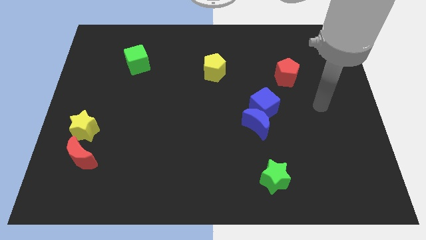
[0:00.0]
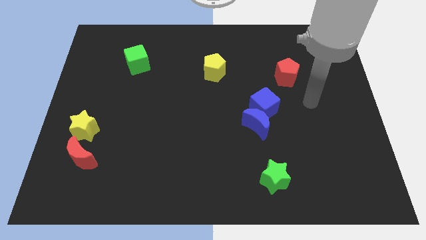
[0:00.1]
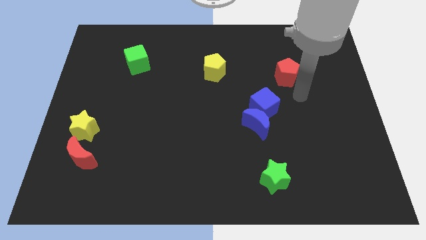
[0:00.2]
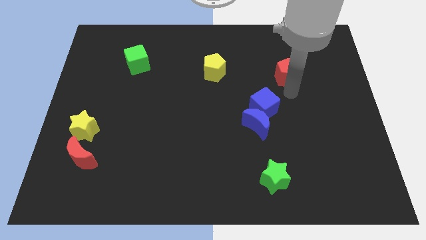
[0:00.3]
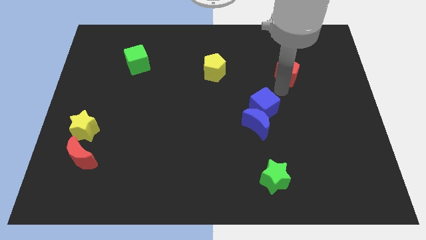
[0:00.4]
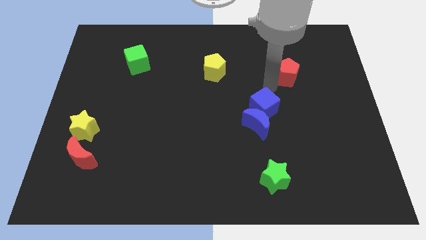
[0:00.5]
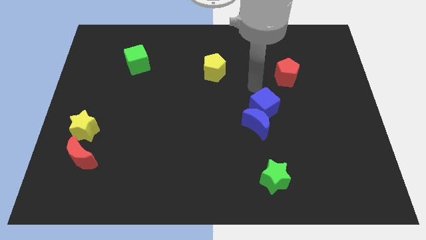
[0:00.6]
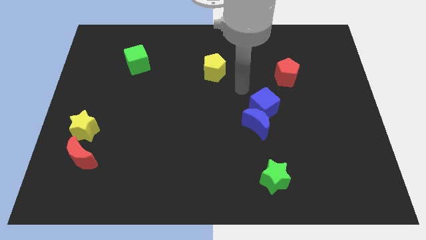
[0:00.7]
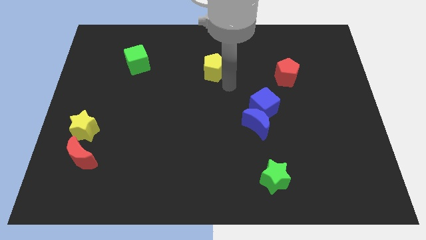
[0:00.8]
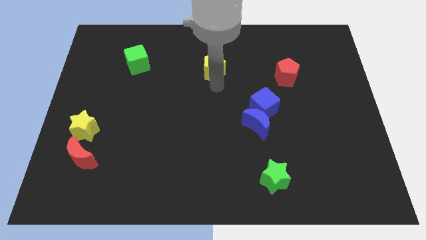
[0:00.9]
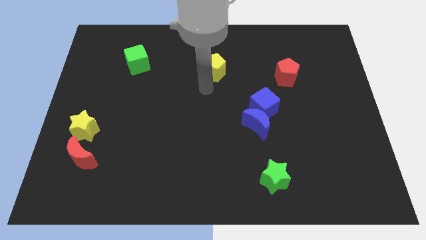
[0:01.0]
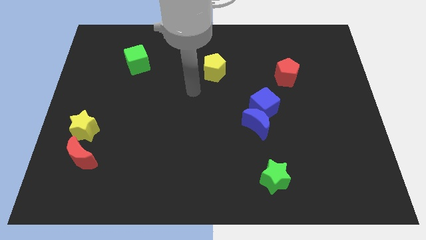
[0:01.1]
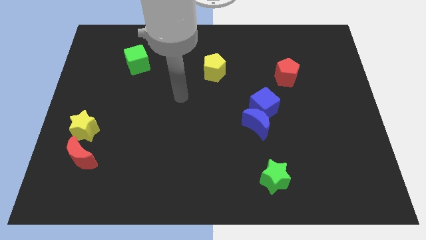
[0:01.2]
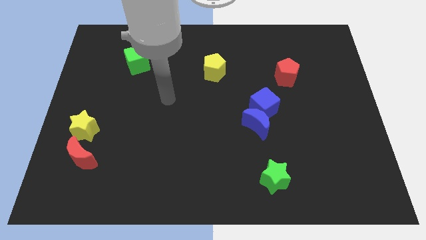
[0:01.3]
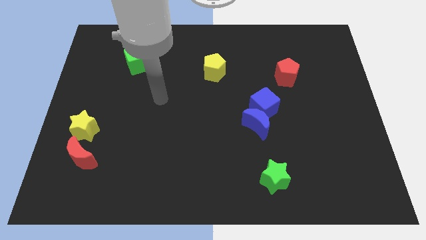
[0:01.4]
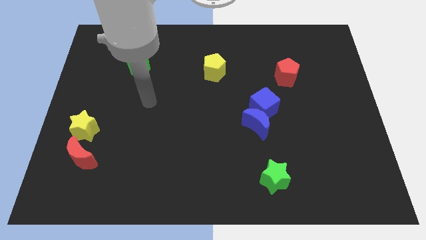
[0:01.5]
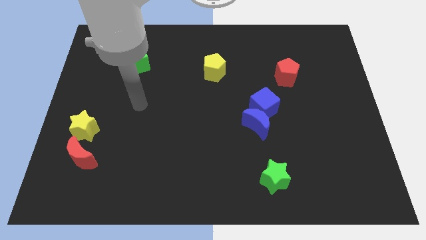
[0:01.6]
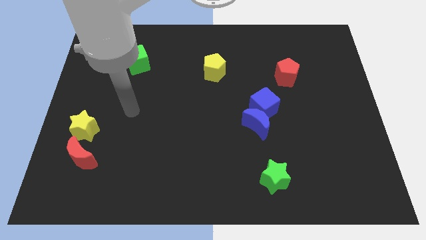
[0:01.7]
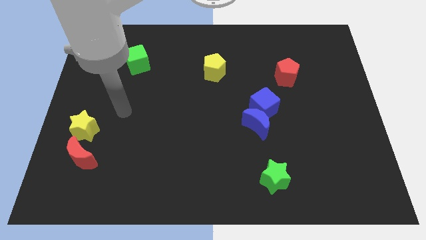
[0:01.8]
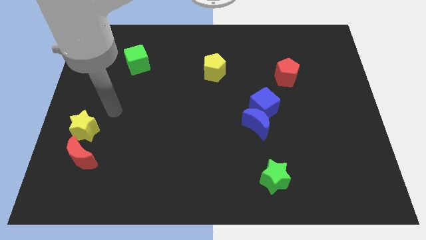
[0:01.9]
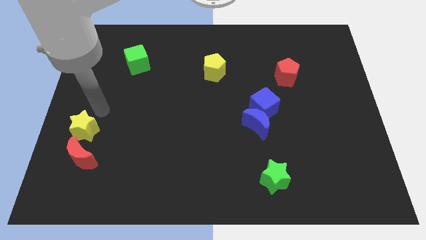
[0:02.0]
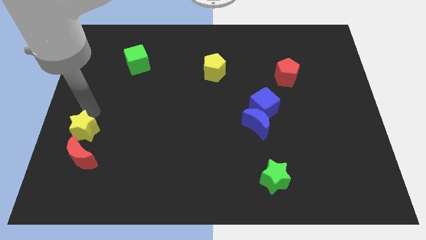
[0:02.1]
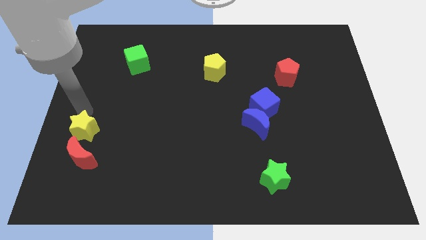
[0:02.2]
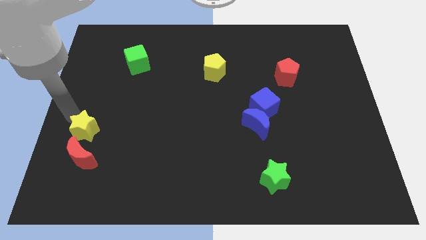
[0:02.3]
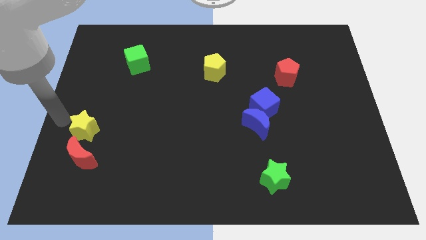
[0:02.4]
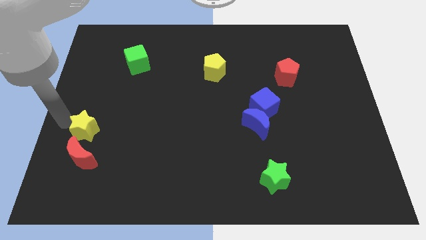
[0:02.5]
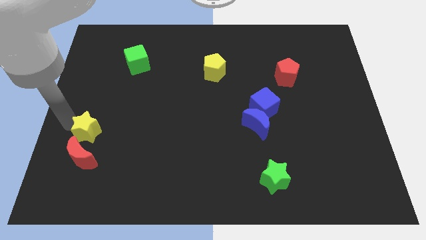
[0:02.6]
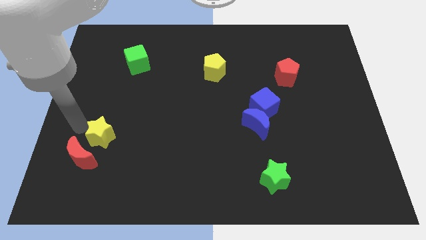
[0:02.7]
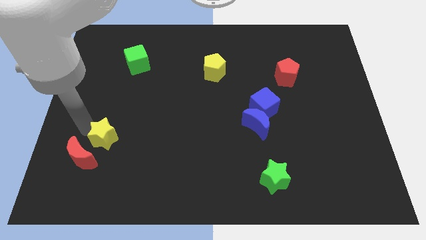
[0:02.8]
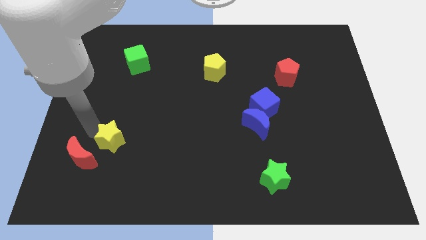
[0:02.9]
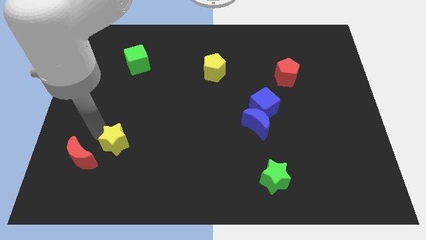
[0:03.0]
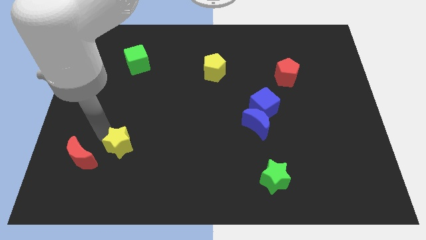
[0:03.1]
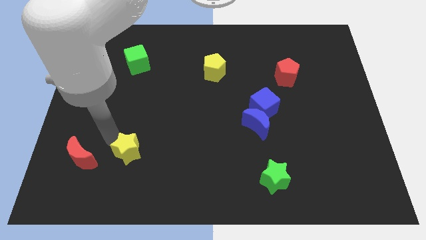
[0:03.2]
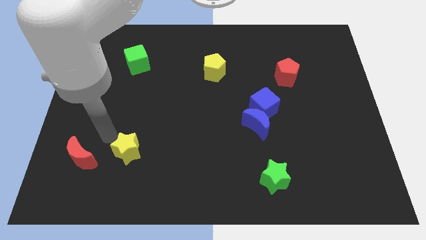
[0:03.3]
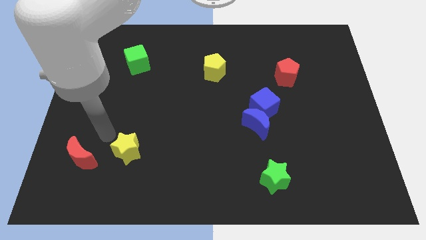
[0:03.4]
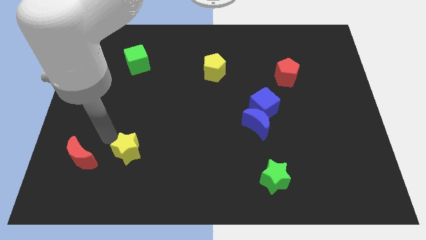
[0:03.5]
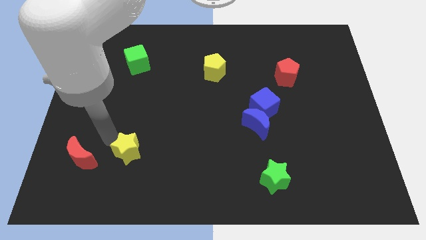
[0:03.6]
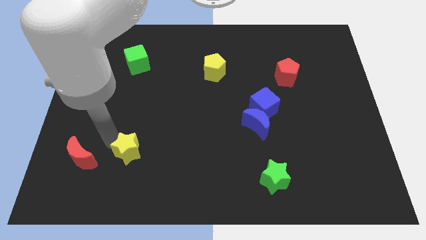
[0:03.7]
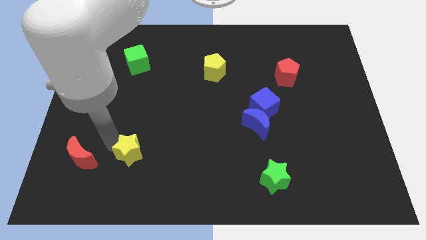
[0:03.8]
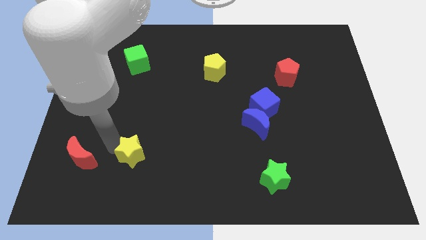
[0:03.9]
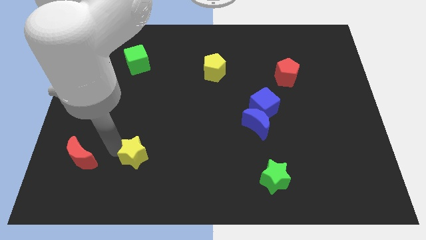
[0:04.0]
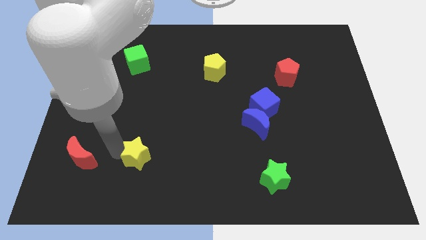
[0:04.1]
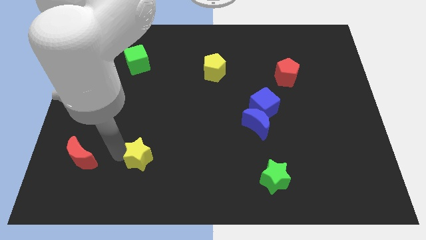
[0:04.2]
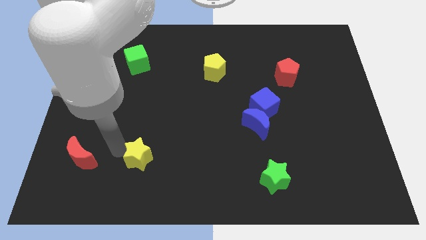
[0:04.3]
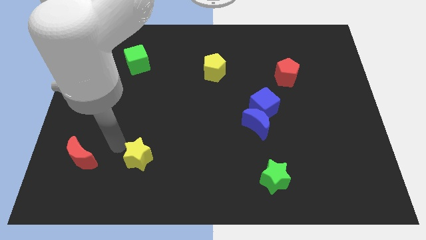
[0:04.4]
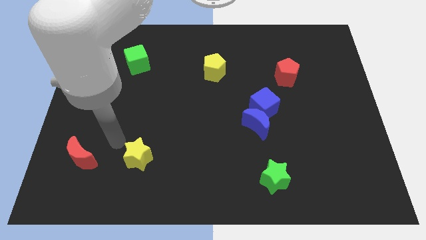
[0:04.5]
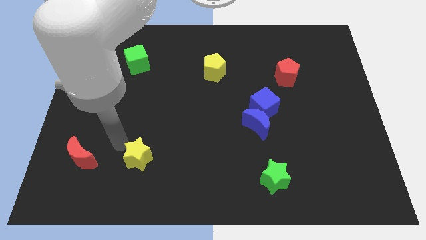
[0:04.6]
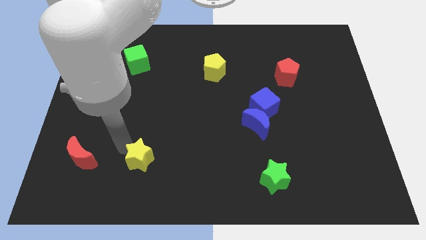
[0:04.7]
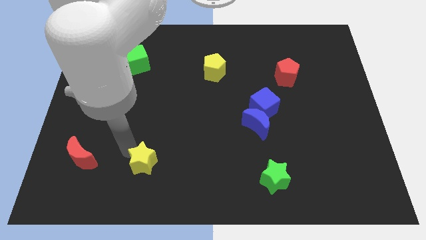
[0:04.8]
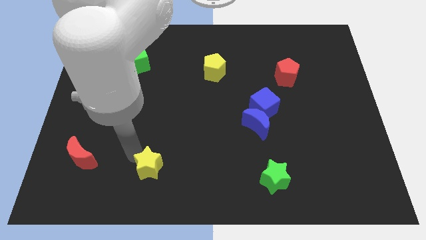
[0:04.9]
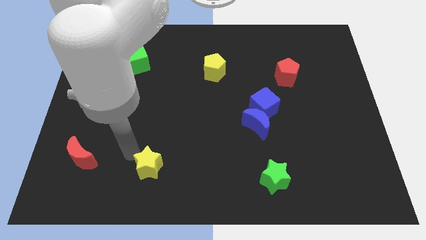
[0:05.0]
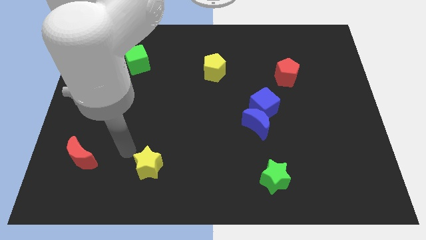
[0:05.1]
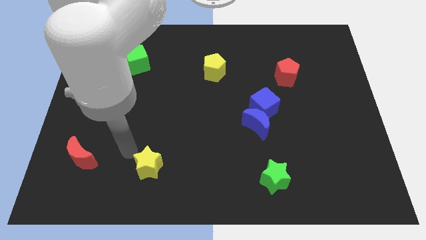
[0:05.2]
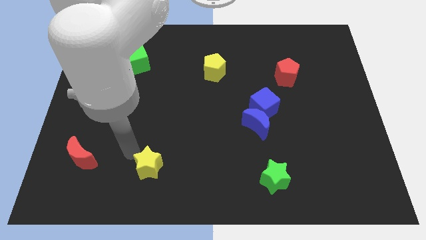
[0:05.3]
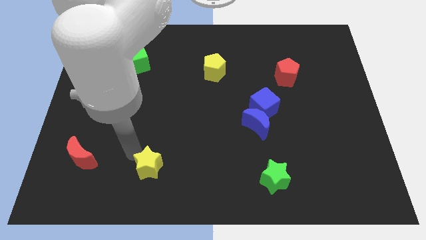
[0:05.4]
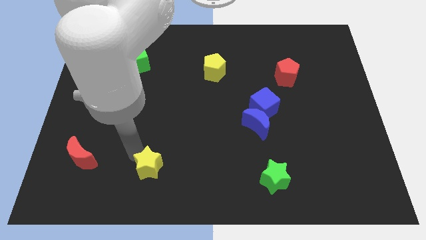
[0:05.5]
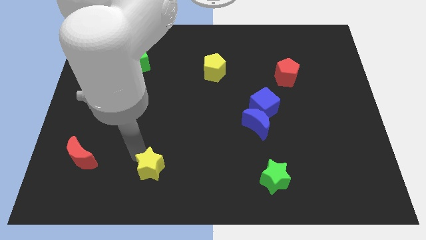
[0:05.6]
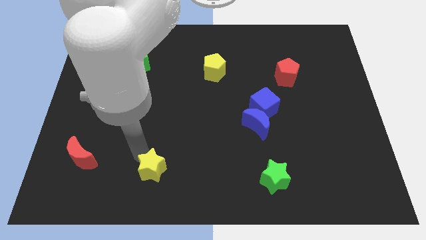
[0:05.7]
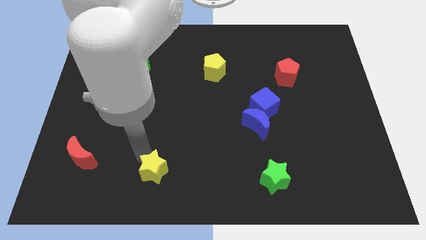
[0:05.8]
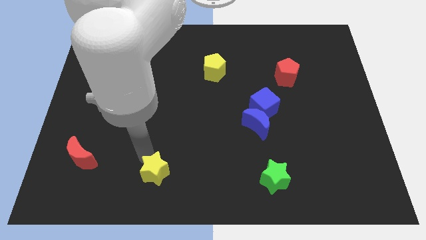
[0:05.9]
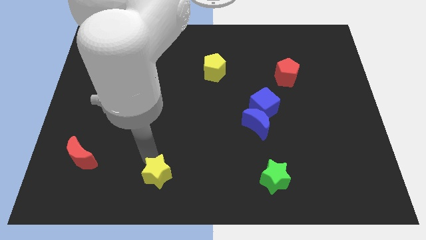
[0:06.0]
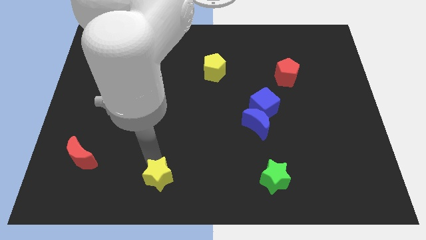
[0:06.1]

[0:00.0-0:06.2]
push the yellow star to the bottom side
